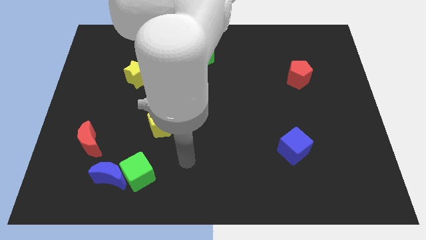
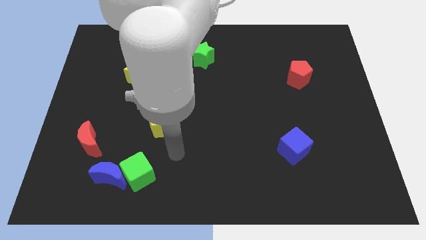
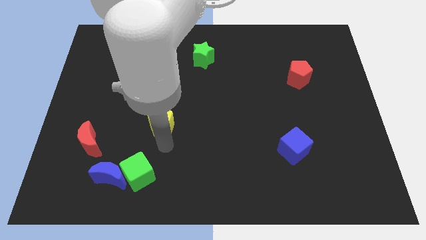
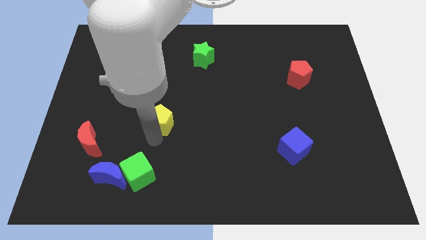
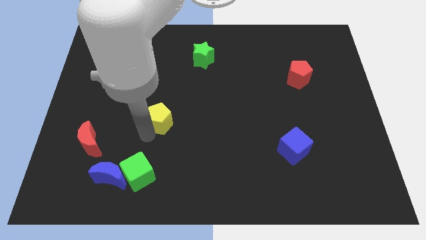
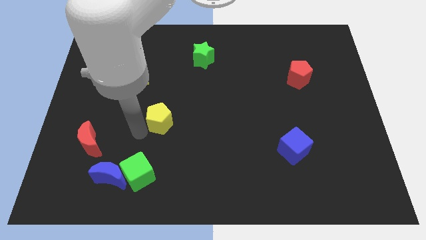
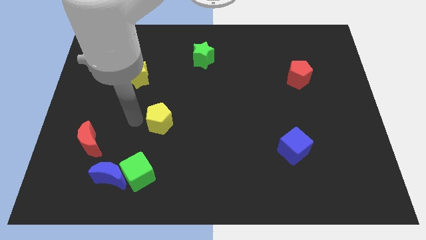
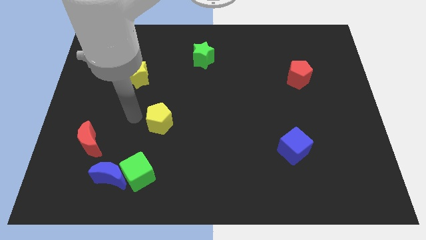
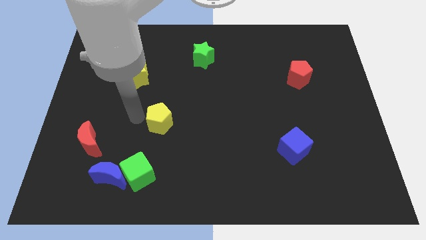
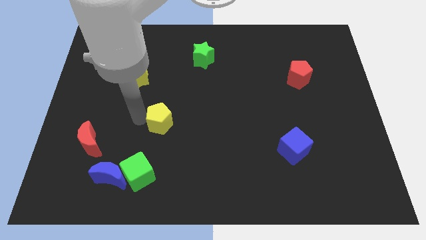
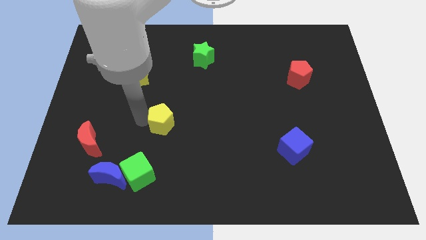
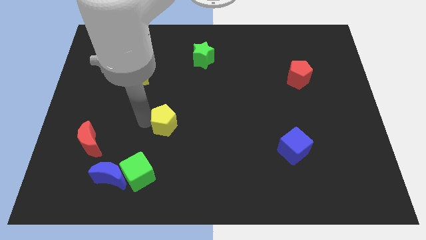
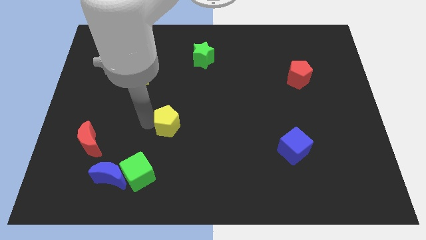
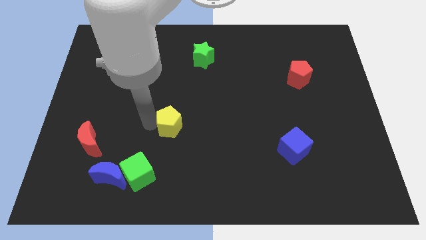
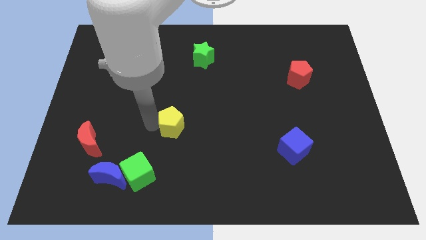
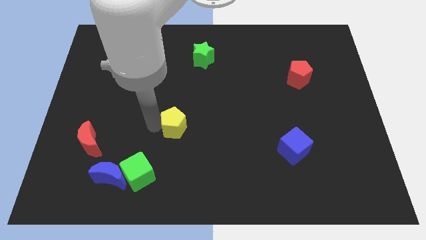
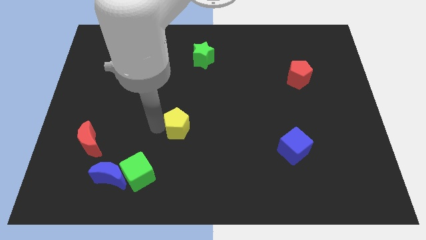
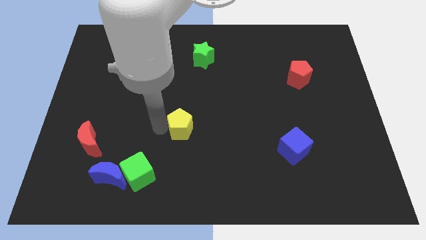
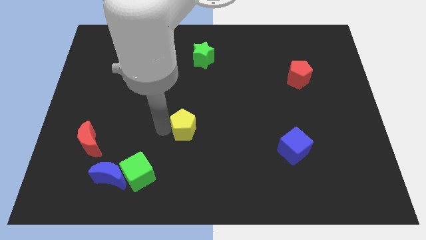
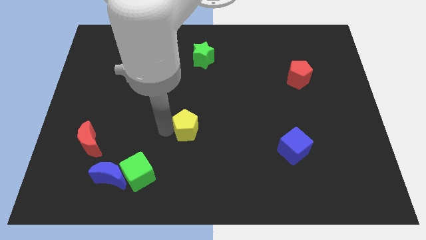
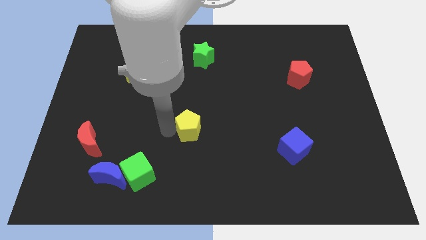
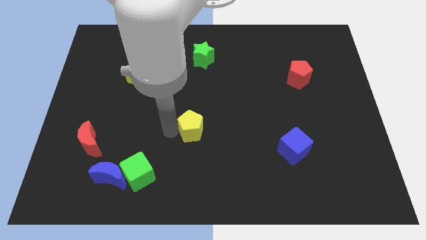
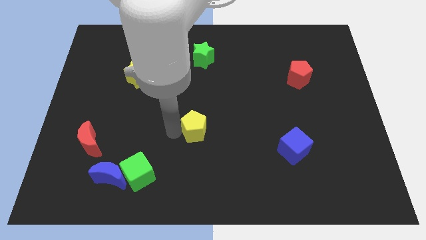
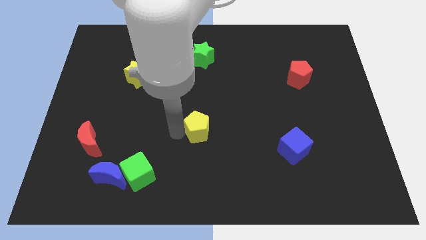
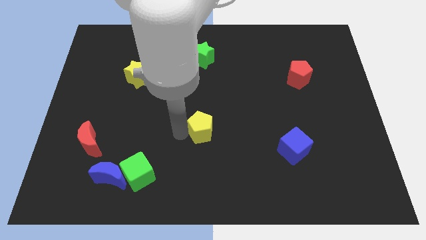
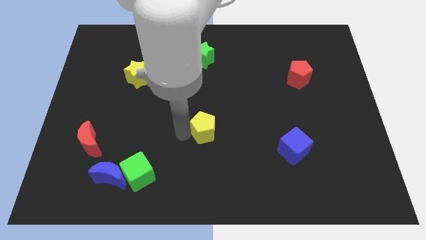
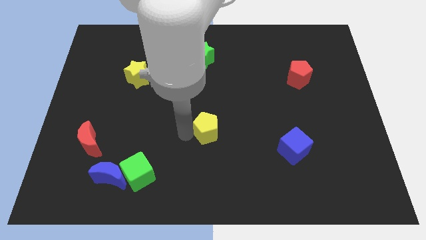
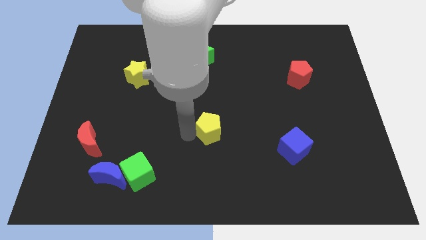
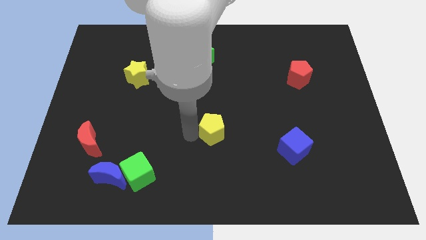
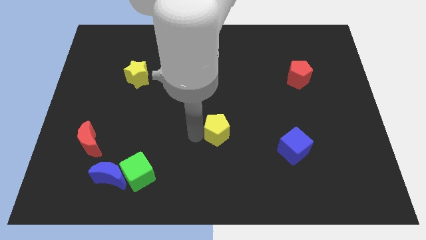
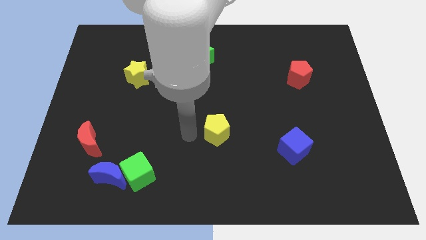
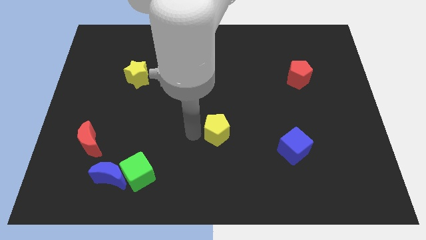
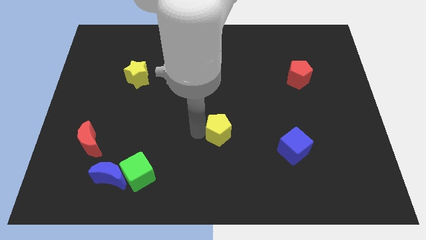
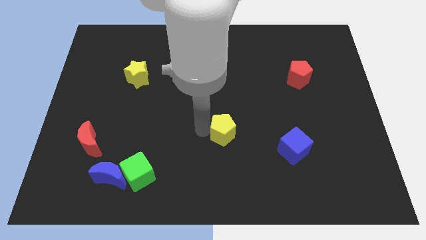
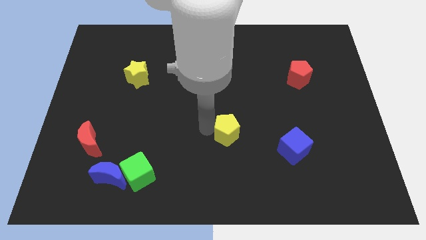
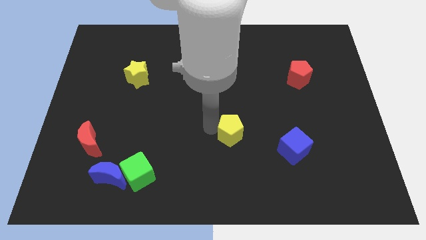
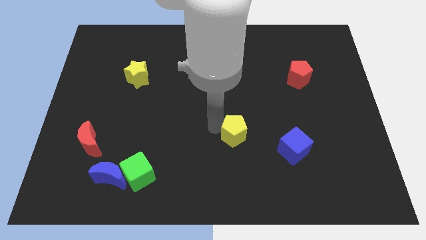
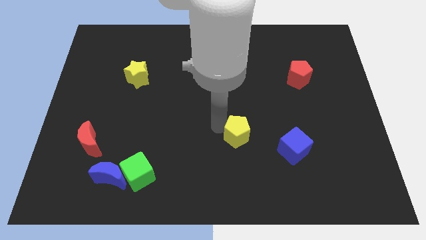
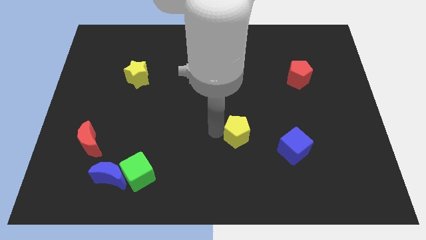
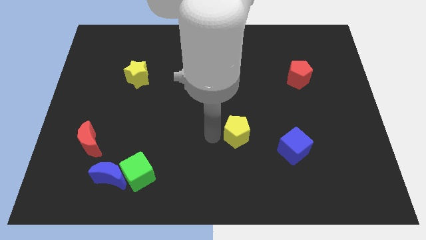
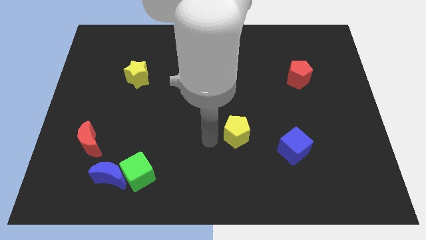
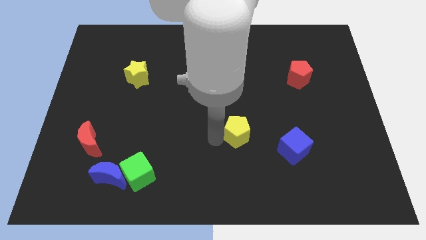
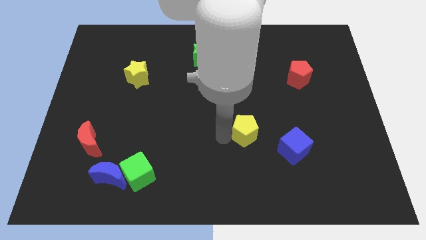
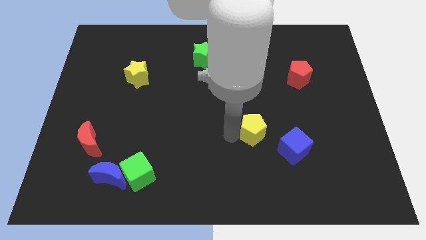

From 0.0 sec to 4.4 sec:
push the yellow pentagon right

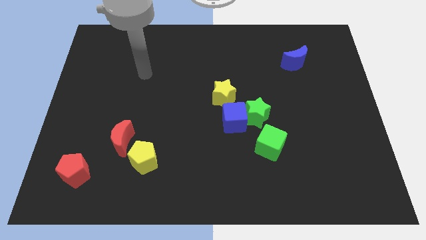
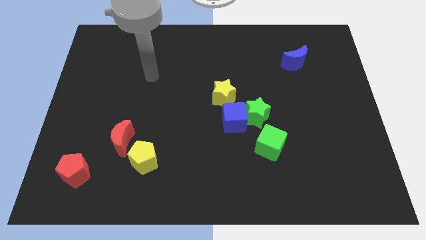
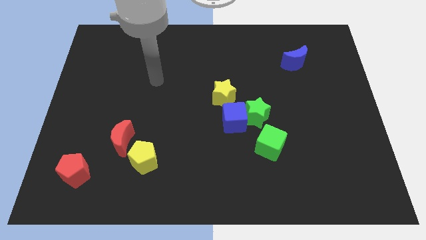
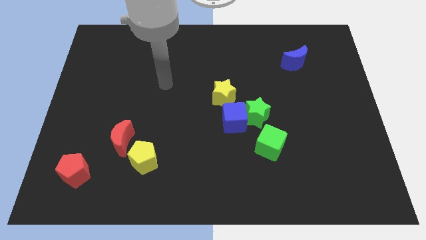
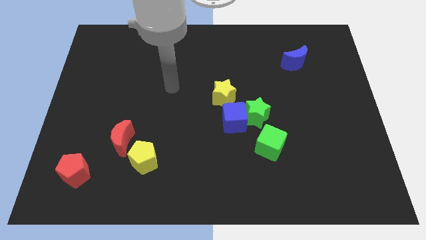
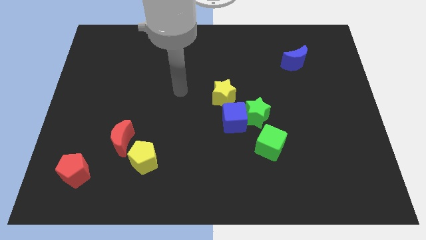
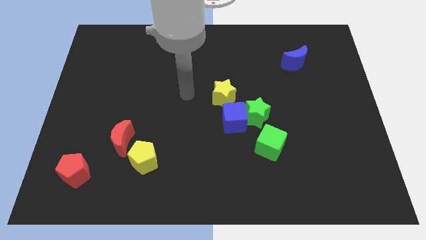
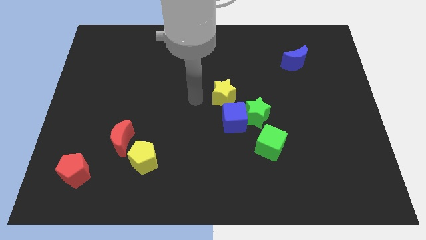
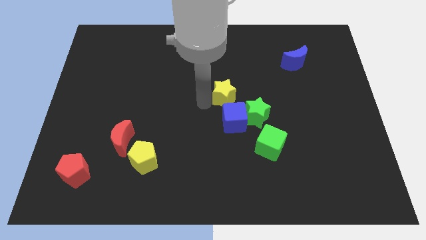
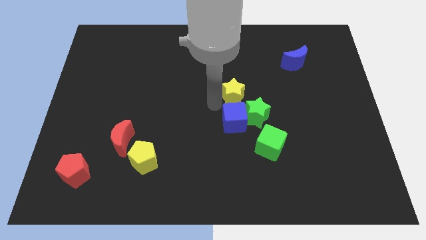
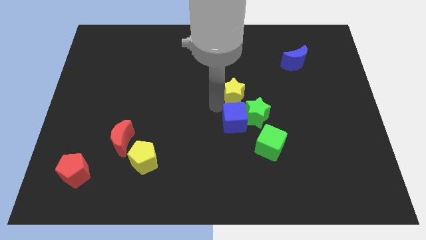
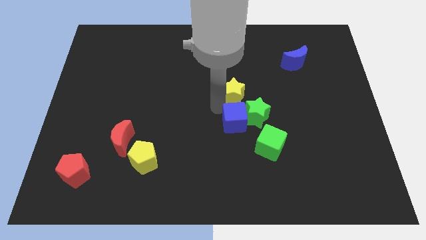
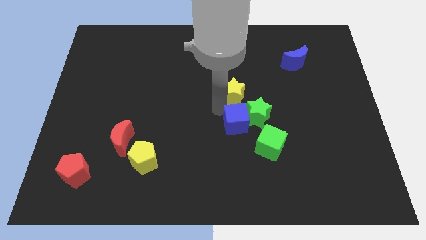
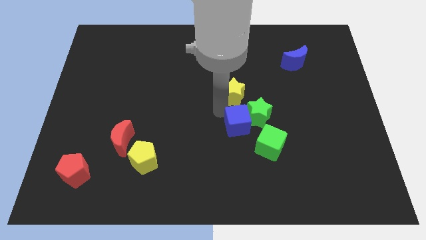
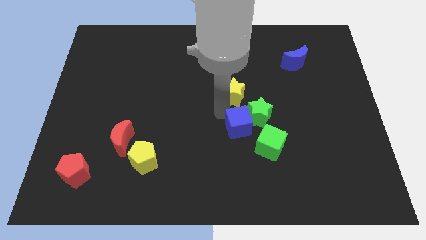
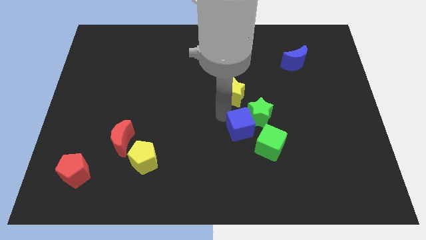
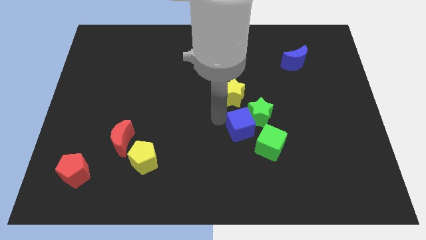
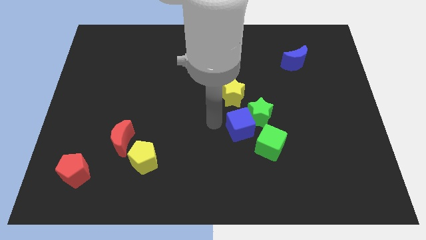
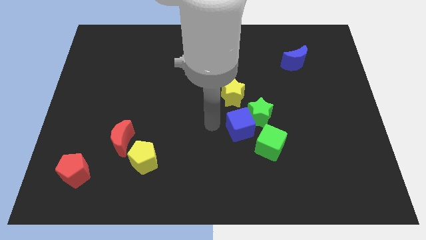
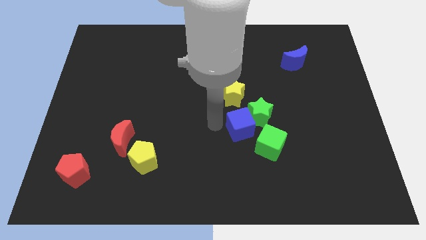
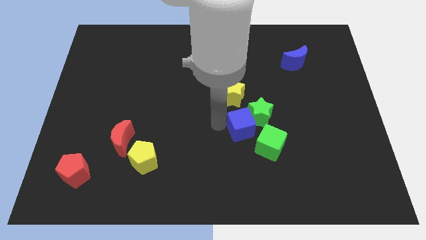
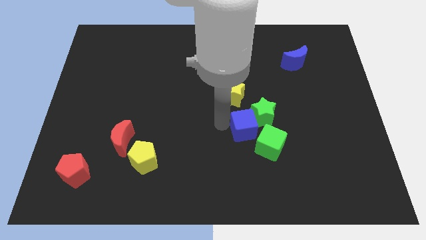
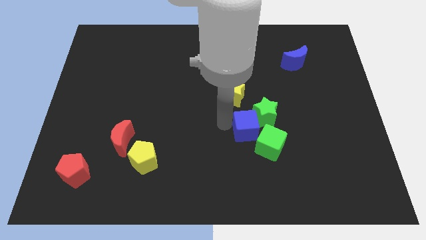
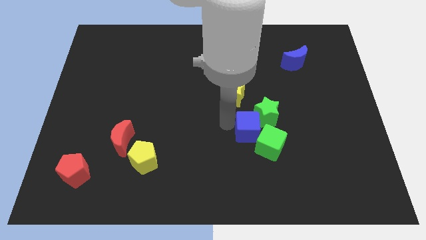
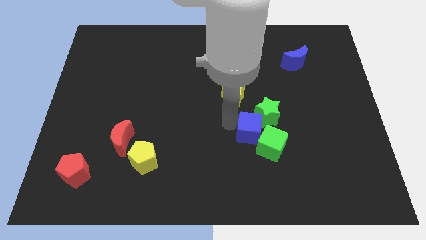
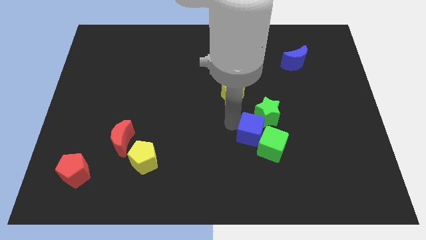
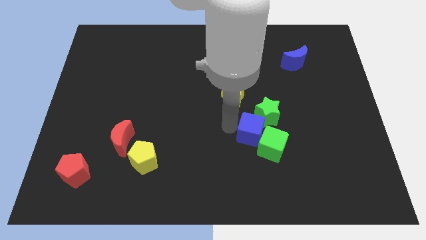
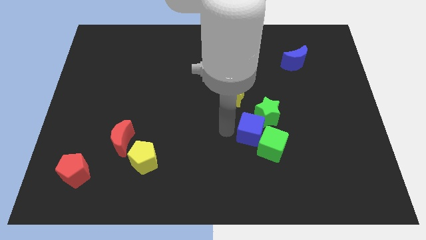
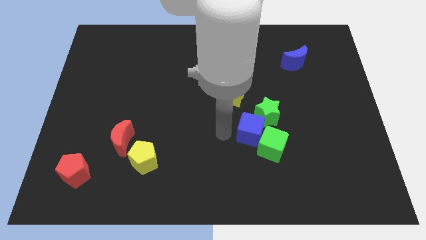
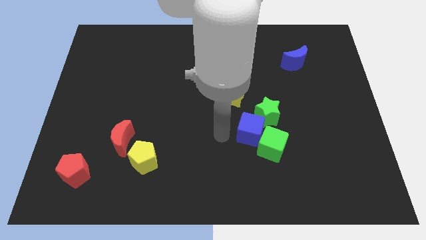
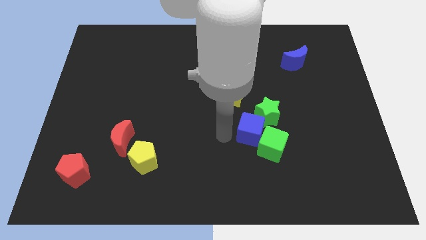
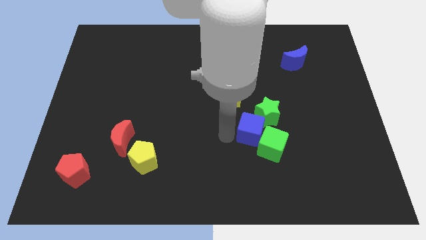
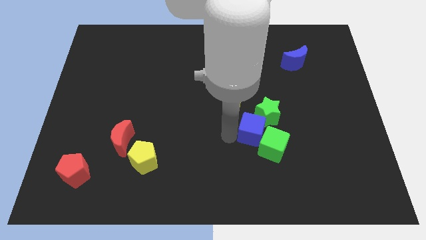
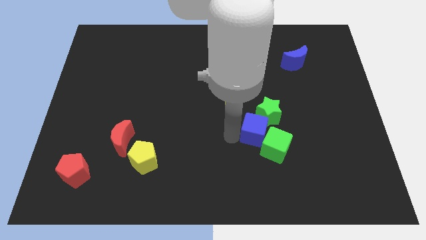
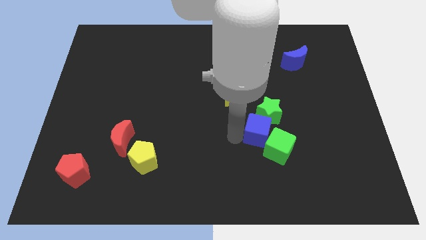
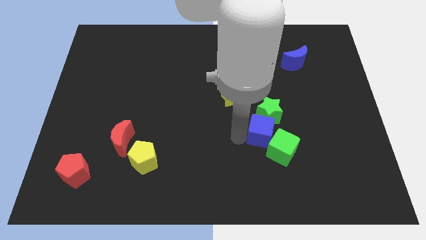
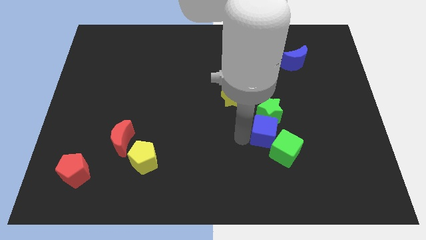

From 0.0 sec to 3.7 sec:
slightly slide the blue cube down and then right

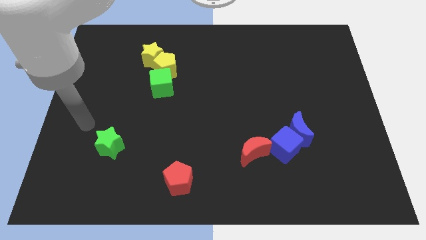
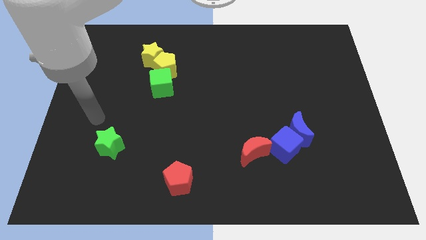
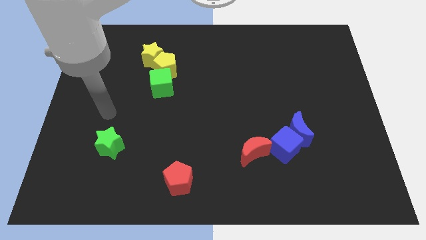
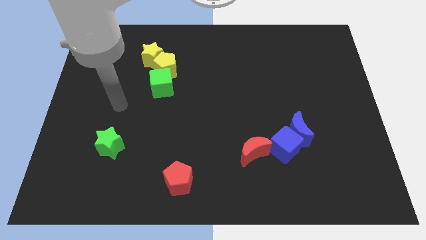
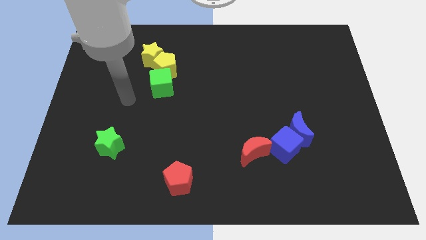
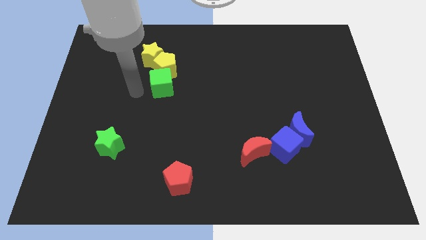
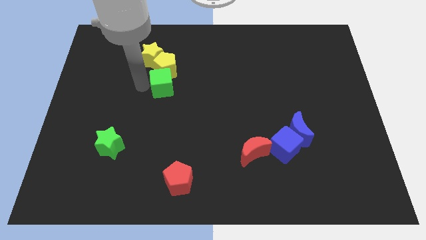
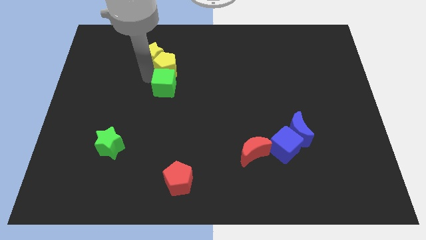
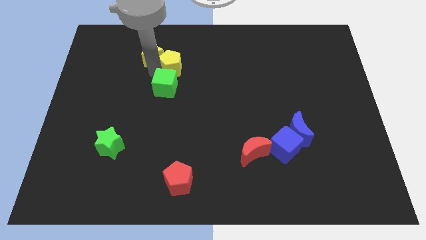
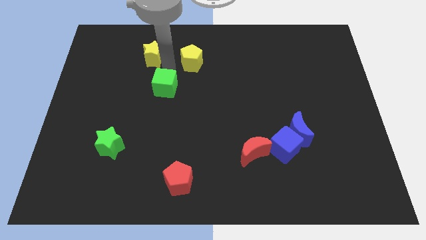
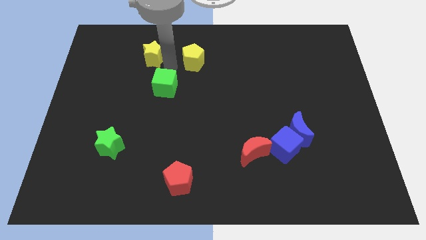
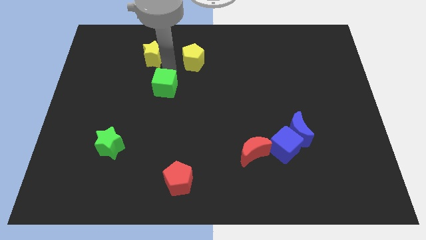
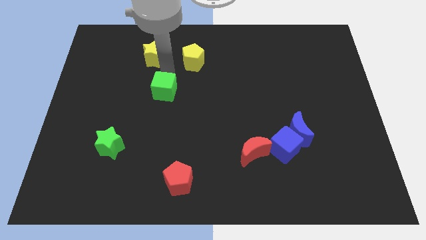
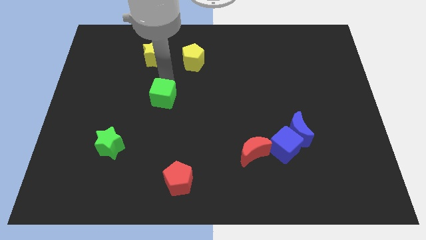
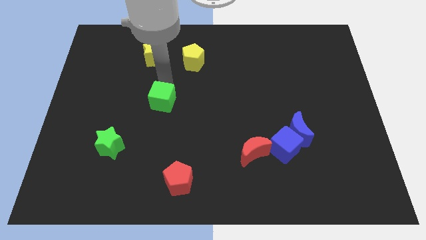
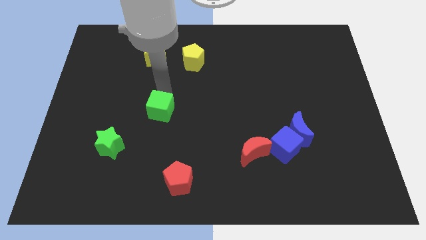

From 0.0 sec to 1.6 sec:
push the green cube a bit down
